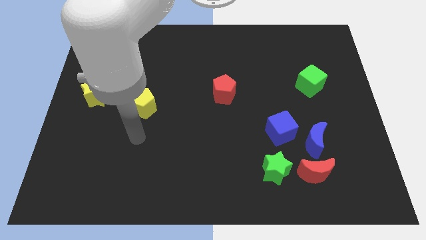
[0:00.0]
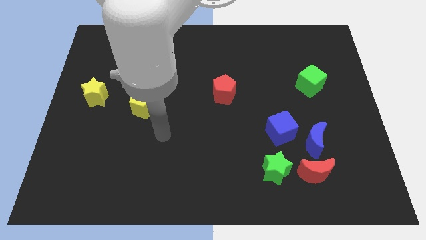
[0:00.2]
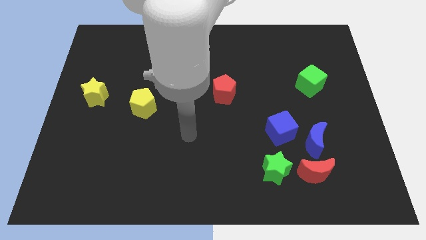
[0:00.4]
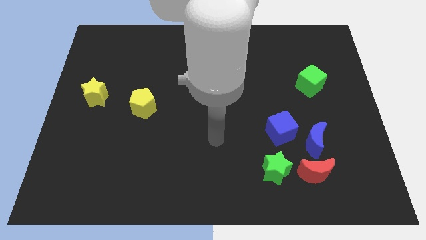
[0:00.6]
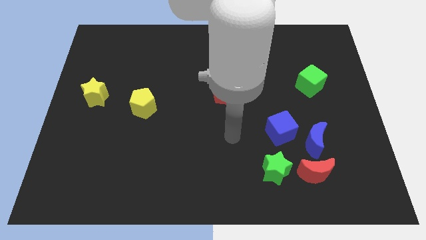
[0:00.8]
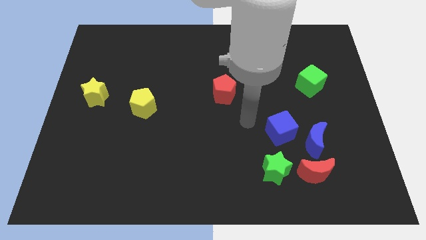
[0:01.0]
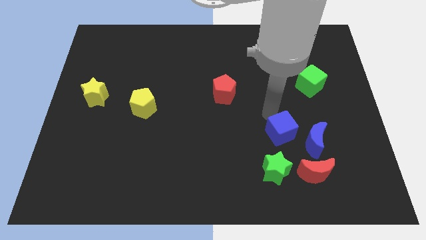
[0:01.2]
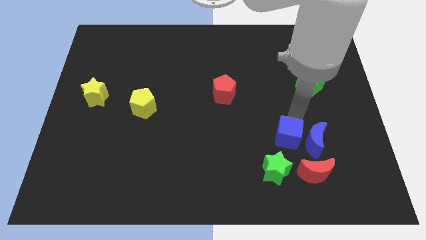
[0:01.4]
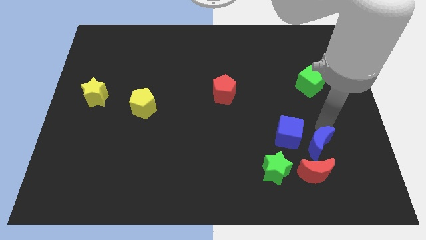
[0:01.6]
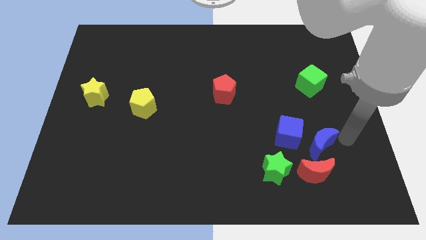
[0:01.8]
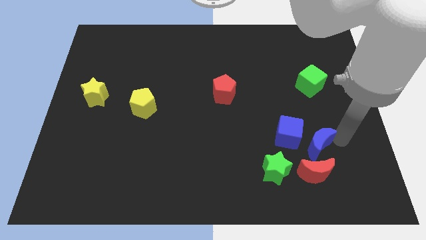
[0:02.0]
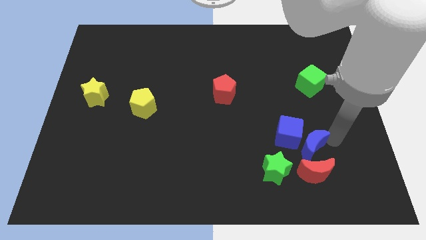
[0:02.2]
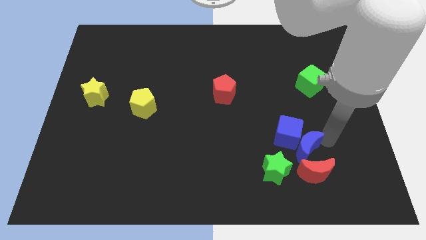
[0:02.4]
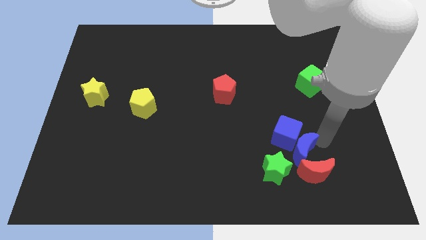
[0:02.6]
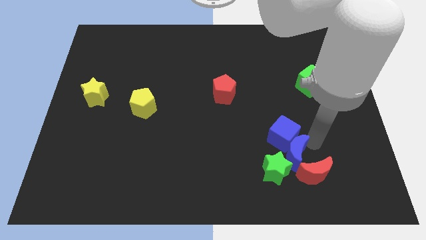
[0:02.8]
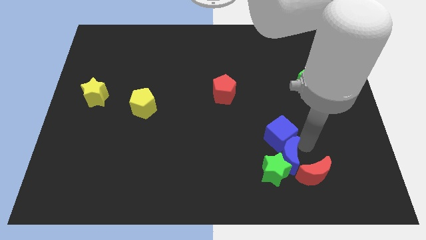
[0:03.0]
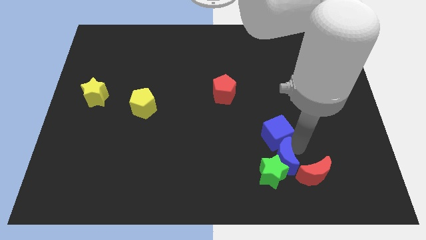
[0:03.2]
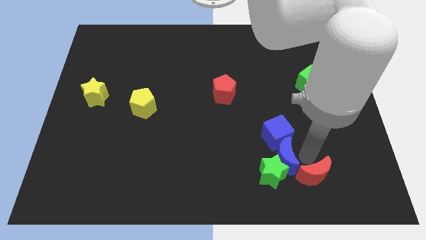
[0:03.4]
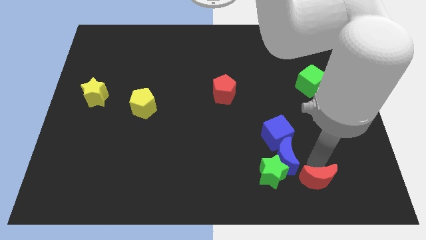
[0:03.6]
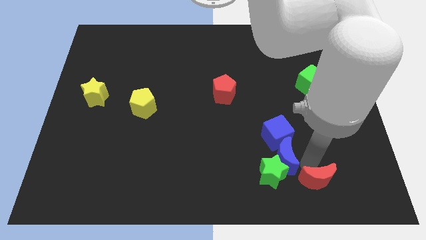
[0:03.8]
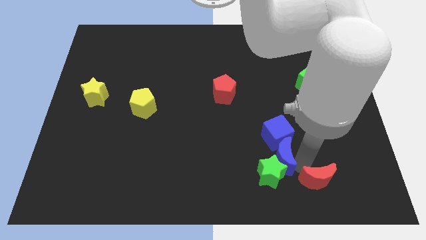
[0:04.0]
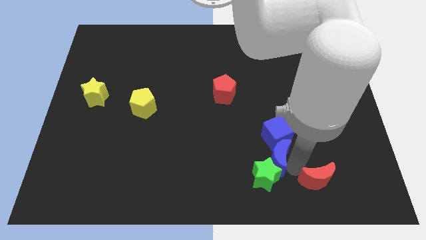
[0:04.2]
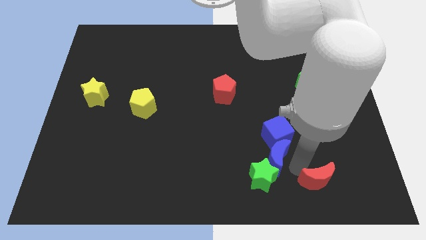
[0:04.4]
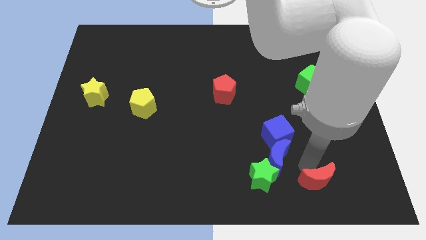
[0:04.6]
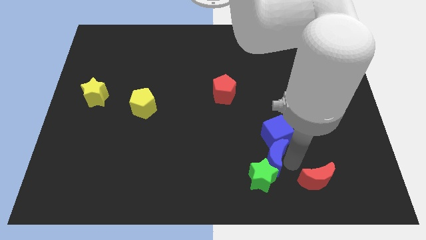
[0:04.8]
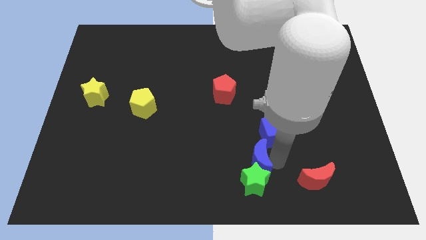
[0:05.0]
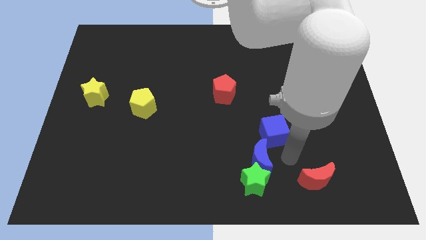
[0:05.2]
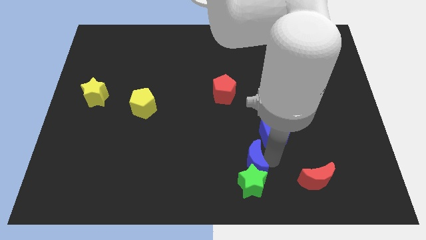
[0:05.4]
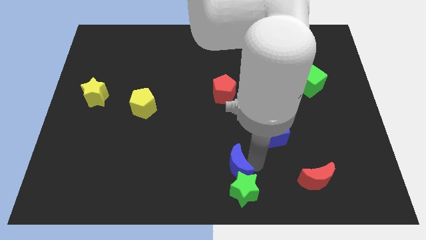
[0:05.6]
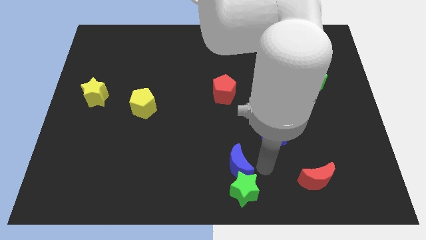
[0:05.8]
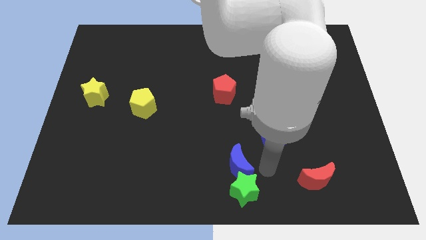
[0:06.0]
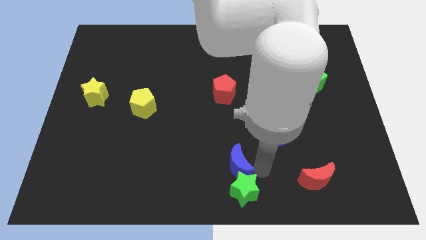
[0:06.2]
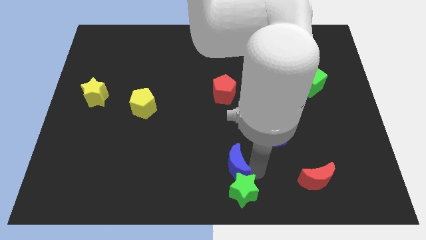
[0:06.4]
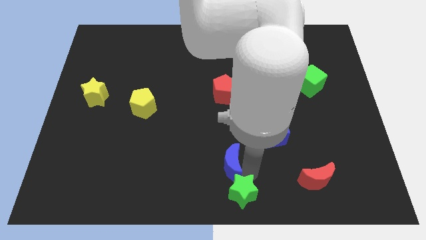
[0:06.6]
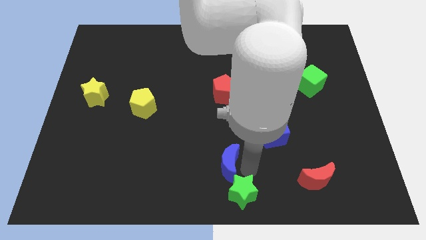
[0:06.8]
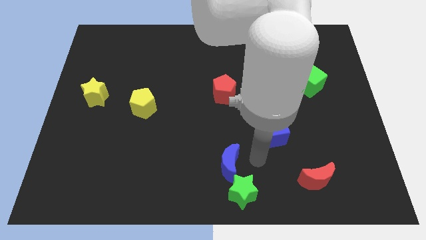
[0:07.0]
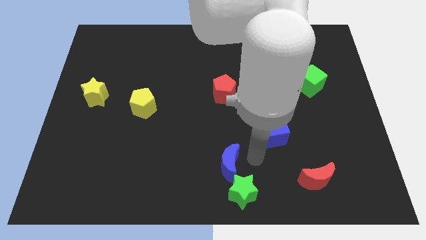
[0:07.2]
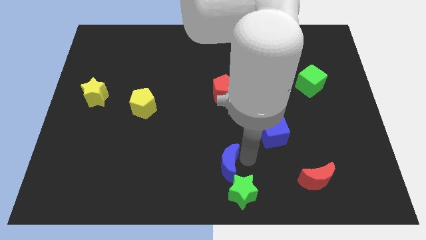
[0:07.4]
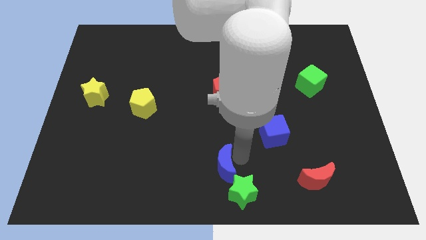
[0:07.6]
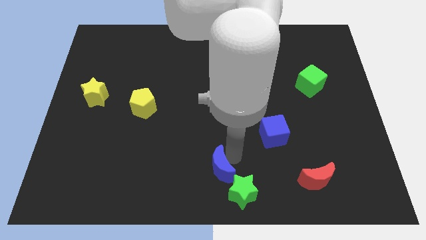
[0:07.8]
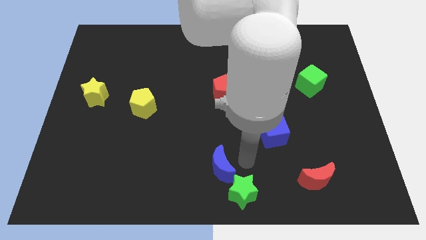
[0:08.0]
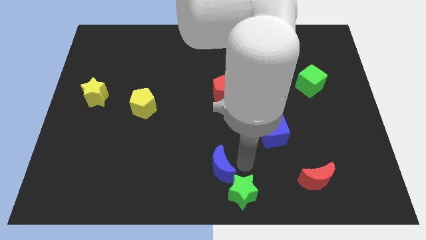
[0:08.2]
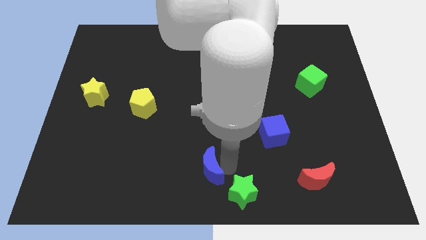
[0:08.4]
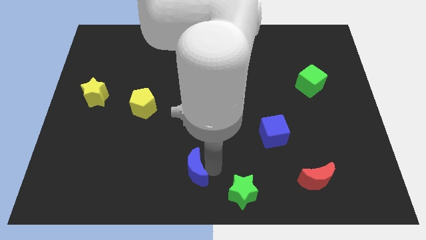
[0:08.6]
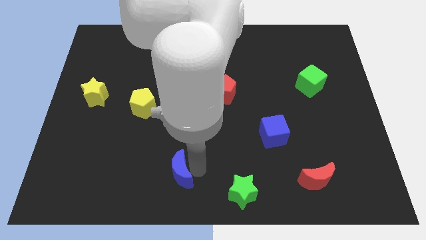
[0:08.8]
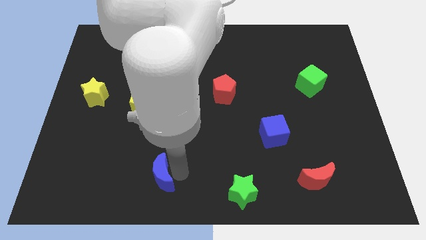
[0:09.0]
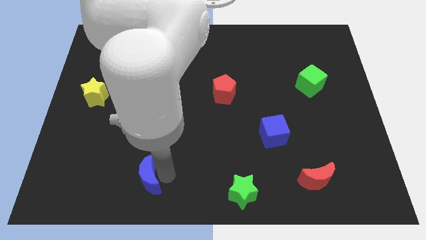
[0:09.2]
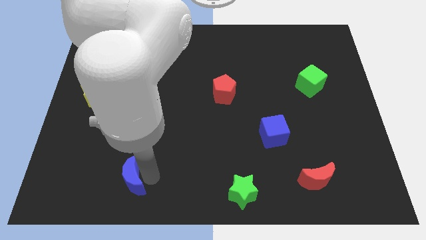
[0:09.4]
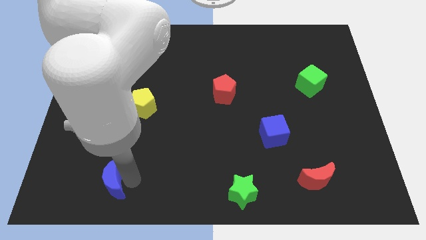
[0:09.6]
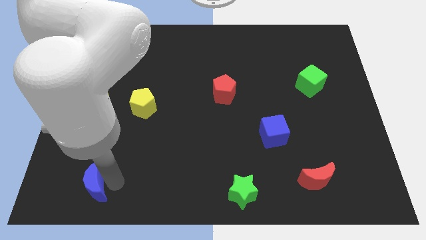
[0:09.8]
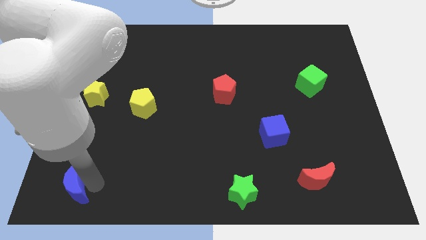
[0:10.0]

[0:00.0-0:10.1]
put the blue moon to the lower left corner

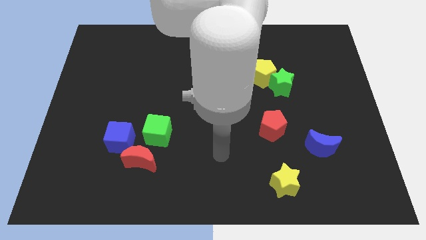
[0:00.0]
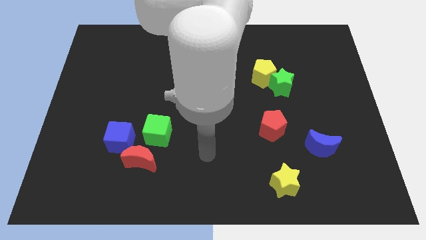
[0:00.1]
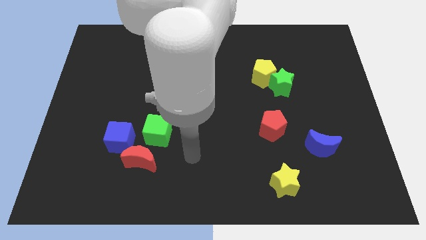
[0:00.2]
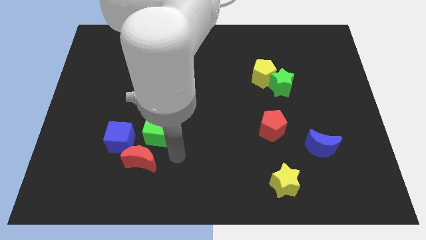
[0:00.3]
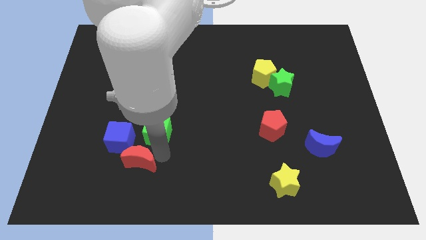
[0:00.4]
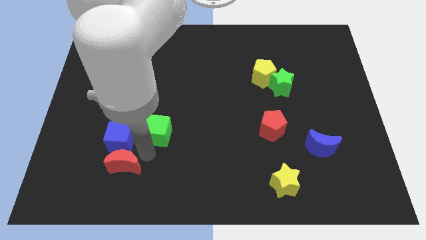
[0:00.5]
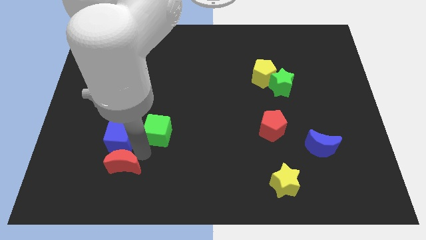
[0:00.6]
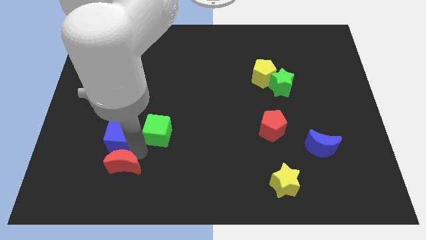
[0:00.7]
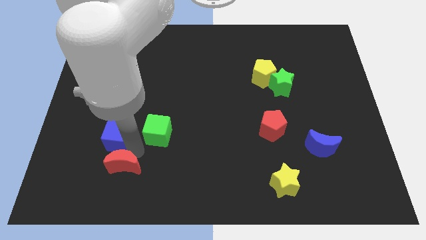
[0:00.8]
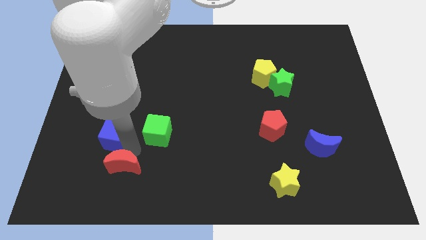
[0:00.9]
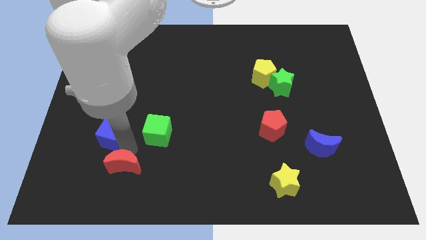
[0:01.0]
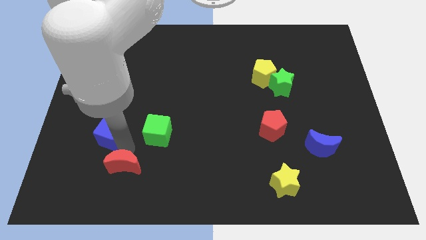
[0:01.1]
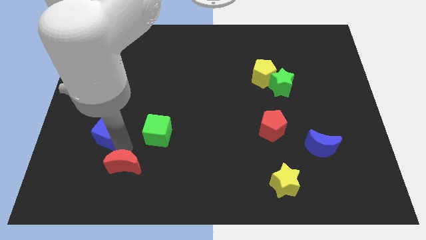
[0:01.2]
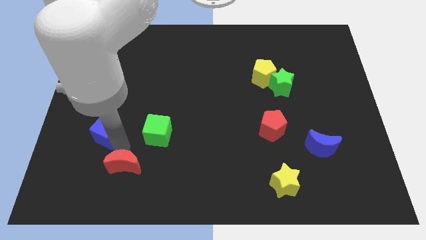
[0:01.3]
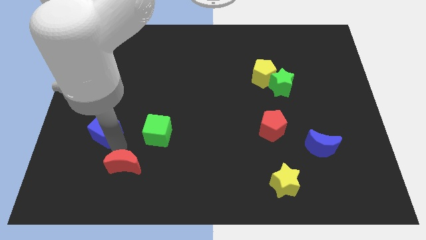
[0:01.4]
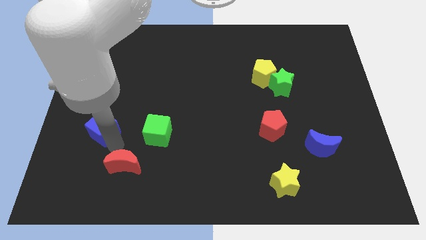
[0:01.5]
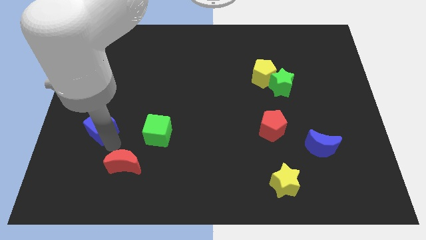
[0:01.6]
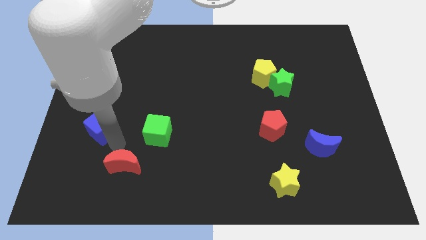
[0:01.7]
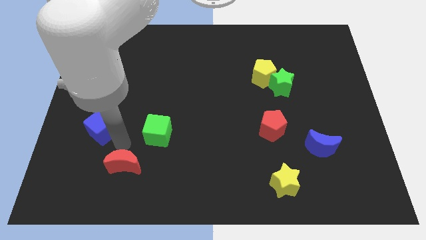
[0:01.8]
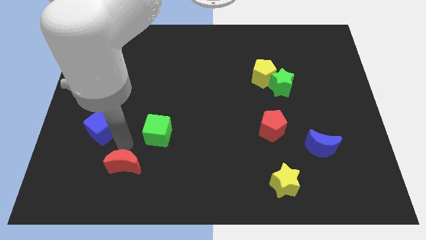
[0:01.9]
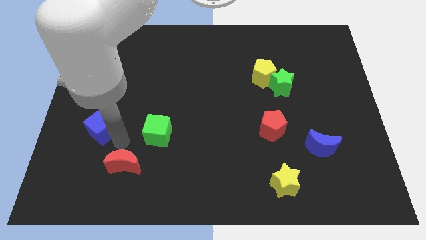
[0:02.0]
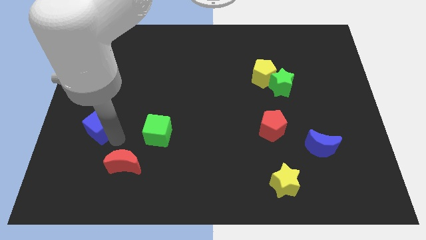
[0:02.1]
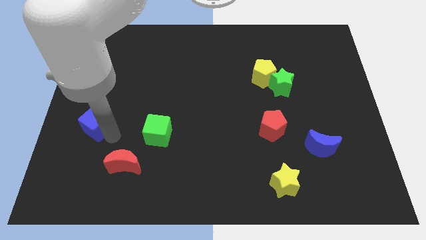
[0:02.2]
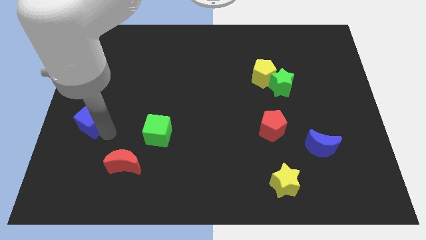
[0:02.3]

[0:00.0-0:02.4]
put the blue cube to the left side
